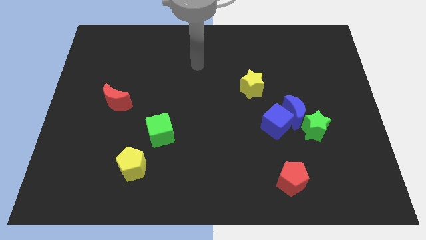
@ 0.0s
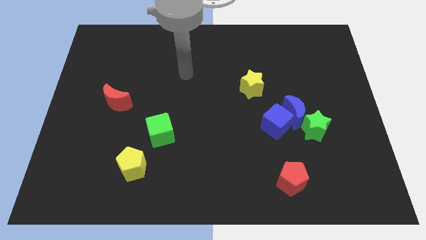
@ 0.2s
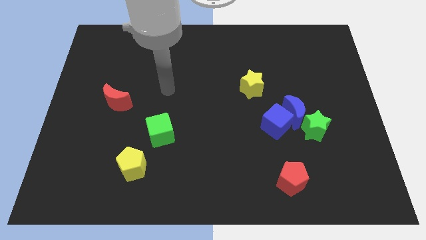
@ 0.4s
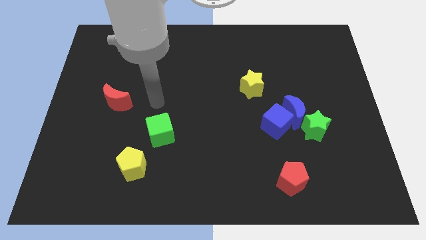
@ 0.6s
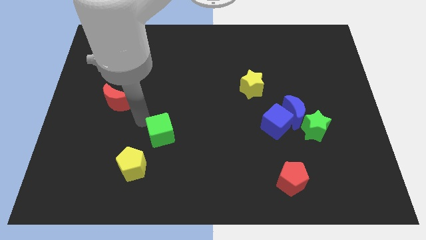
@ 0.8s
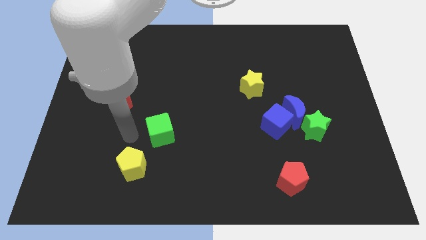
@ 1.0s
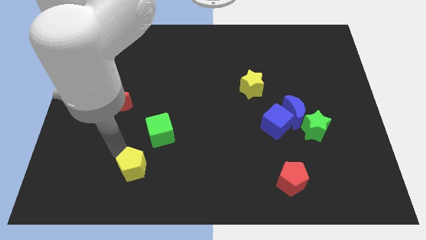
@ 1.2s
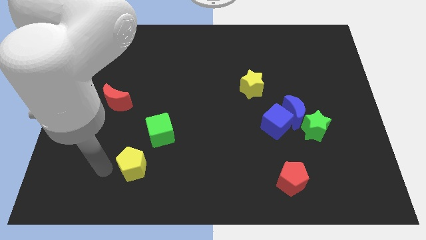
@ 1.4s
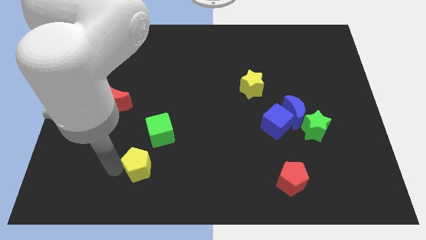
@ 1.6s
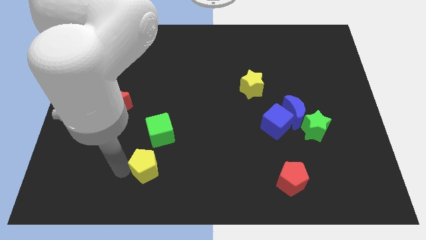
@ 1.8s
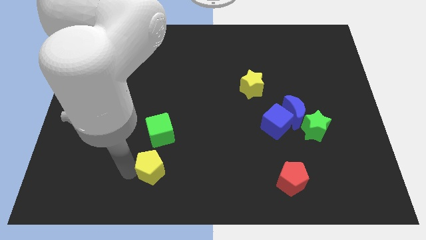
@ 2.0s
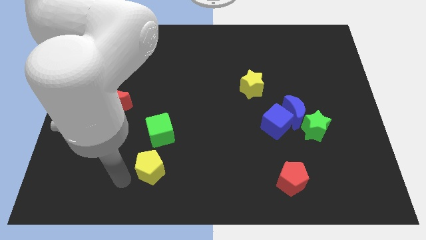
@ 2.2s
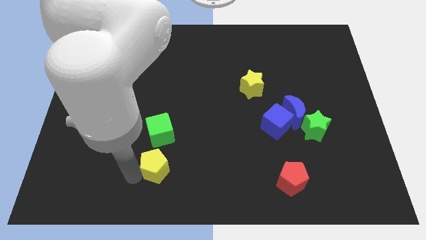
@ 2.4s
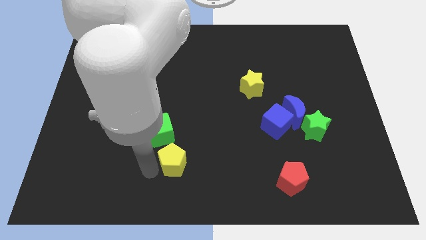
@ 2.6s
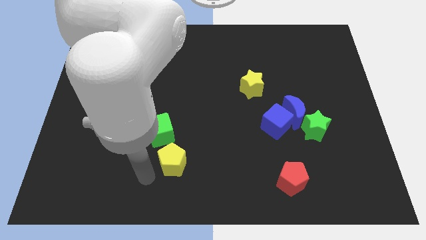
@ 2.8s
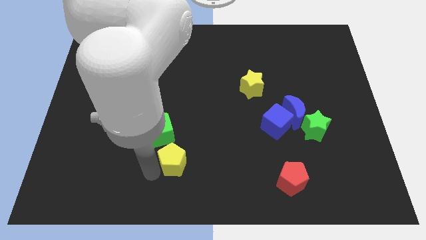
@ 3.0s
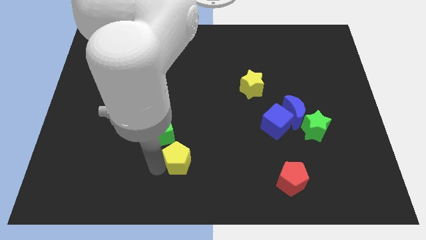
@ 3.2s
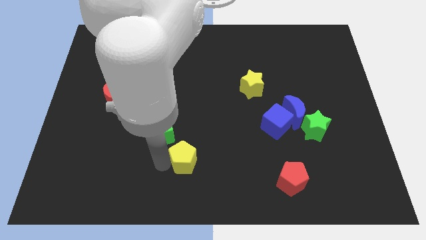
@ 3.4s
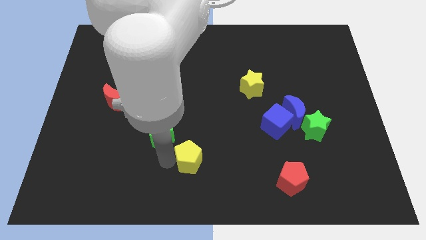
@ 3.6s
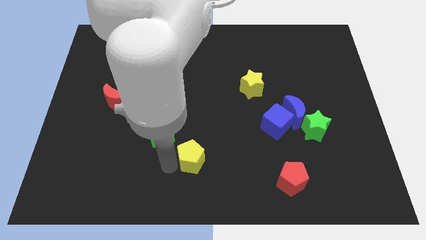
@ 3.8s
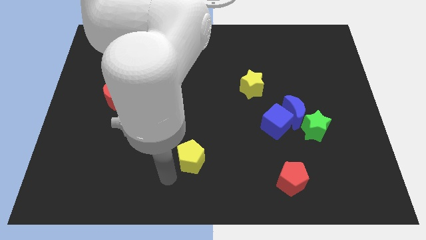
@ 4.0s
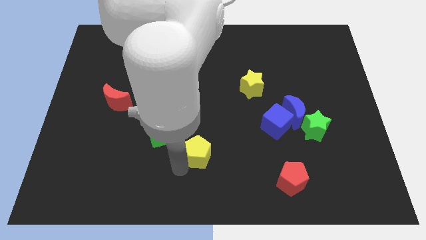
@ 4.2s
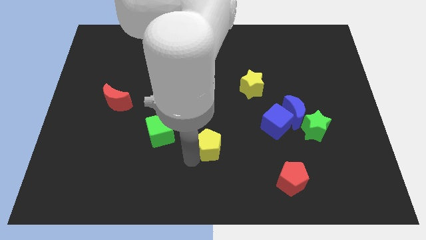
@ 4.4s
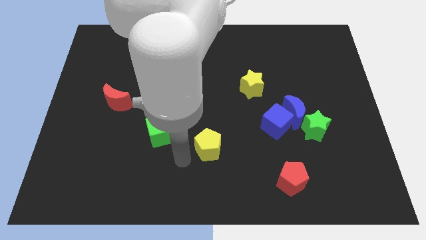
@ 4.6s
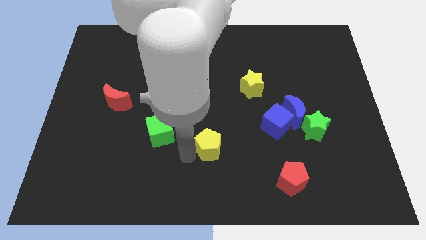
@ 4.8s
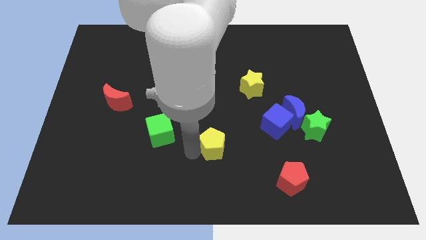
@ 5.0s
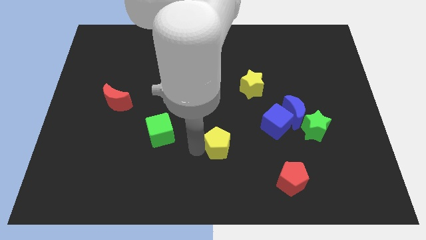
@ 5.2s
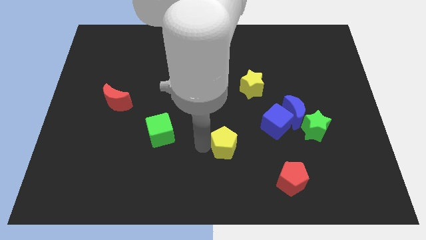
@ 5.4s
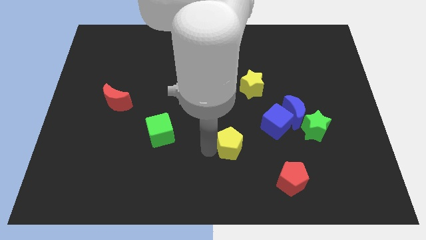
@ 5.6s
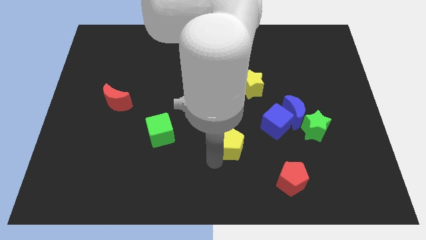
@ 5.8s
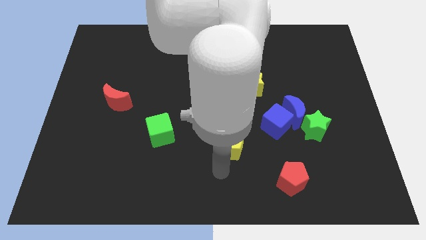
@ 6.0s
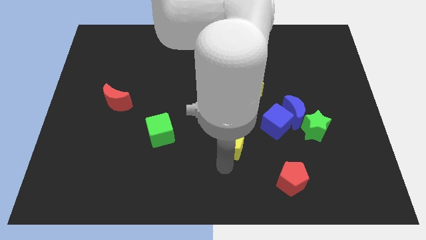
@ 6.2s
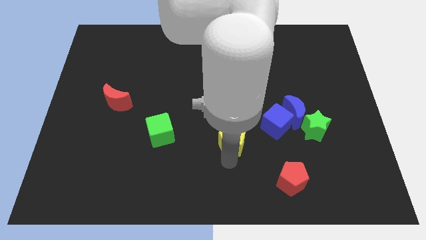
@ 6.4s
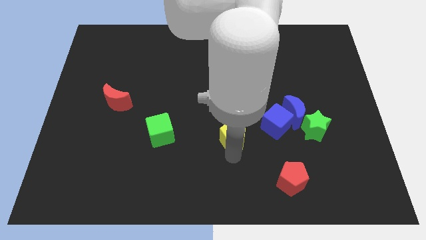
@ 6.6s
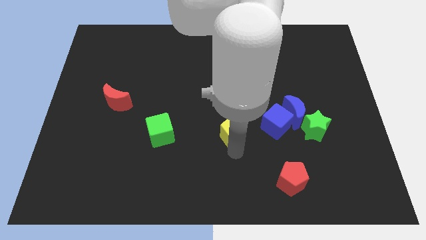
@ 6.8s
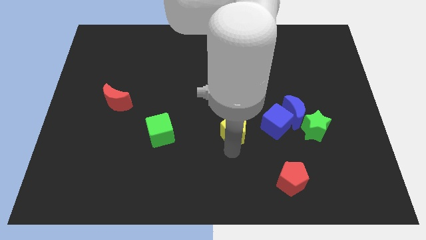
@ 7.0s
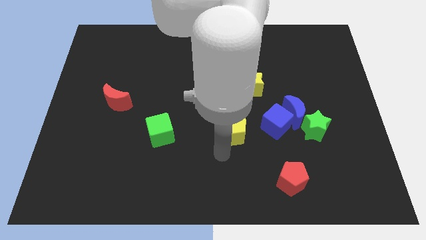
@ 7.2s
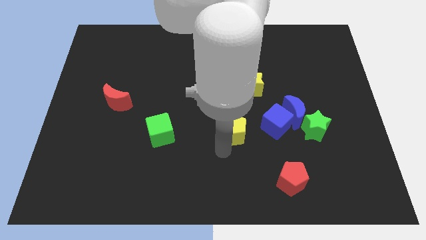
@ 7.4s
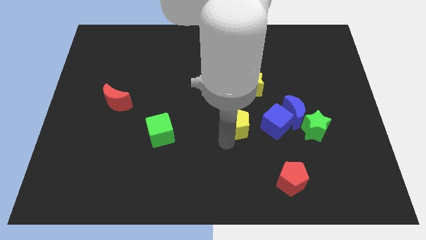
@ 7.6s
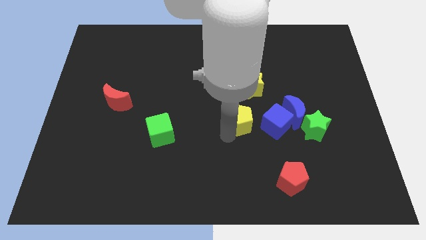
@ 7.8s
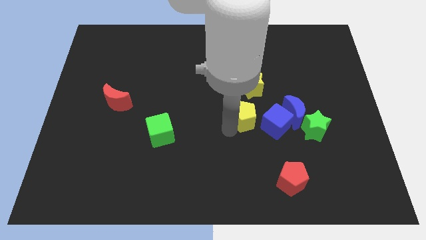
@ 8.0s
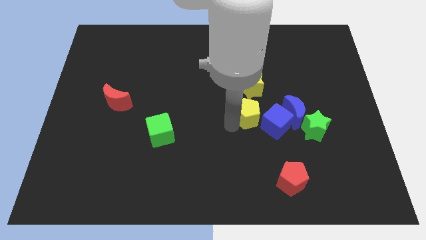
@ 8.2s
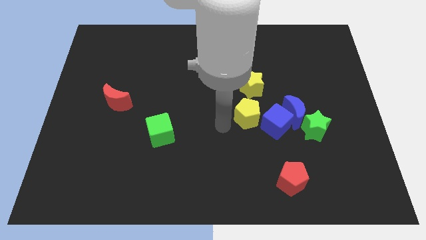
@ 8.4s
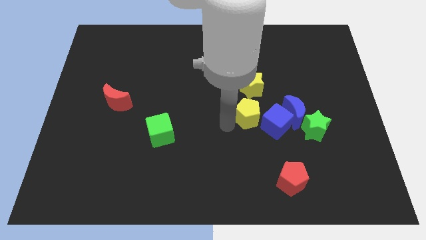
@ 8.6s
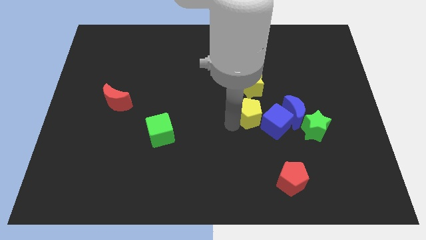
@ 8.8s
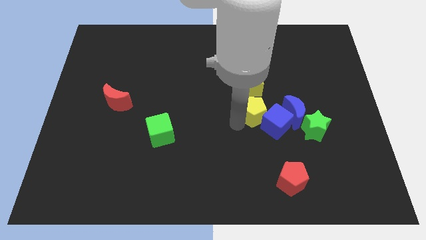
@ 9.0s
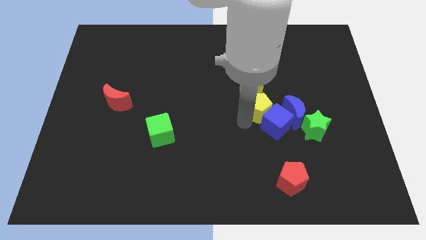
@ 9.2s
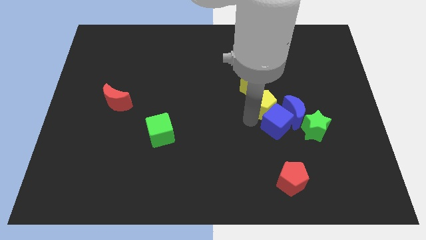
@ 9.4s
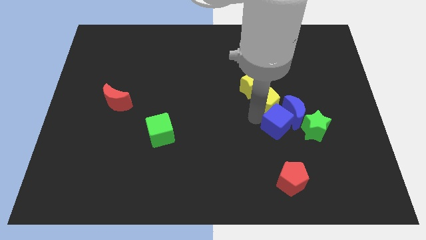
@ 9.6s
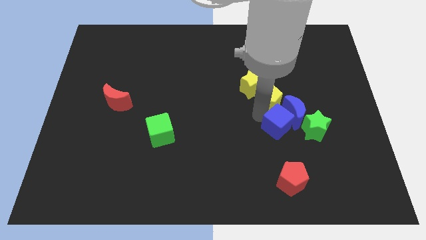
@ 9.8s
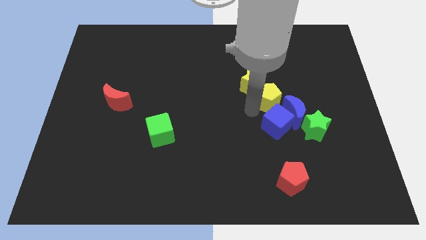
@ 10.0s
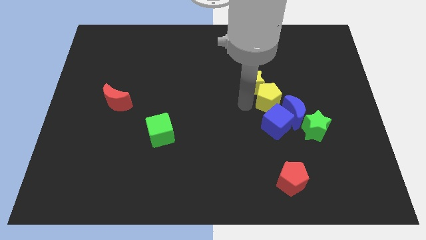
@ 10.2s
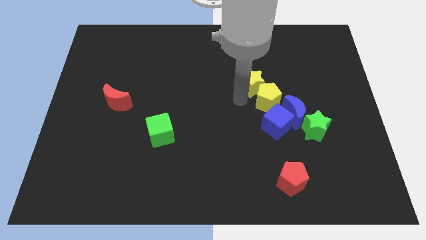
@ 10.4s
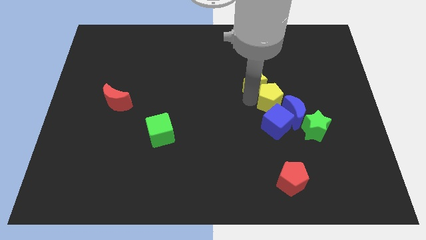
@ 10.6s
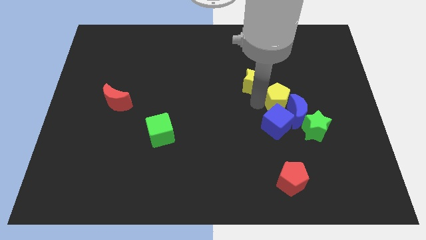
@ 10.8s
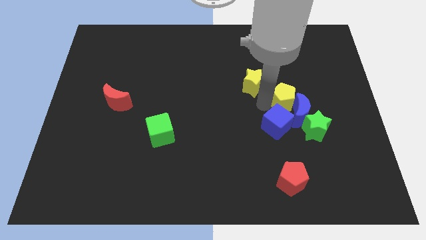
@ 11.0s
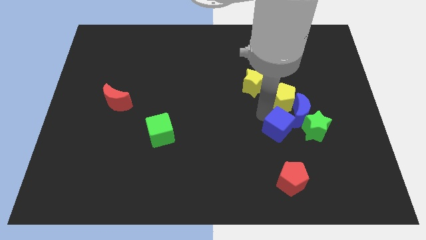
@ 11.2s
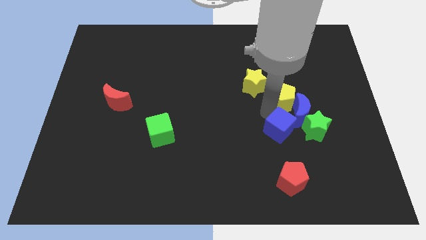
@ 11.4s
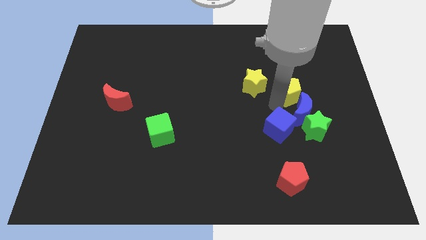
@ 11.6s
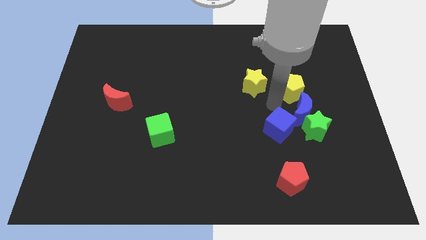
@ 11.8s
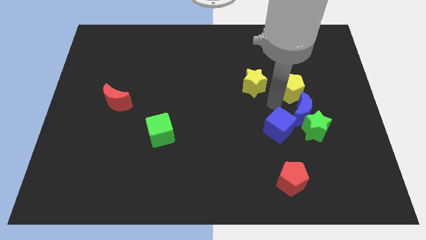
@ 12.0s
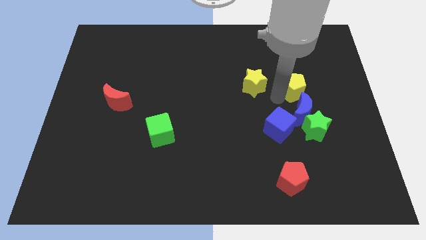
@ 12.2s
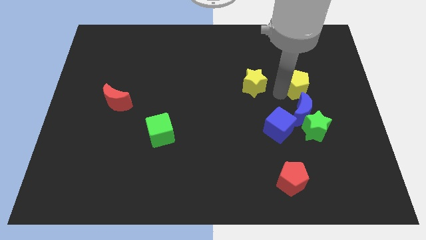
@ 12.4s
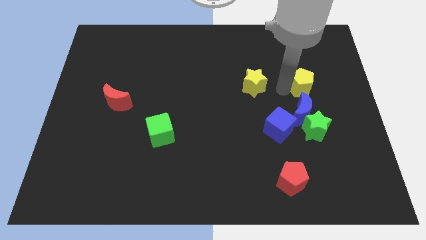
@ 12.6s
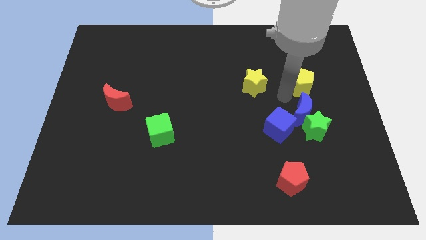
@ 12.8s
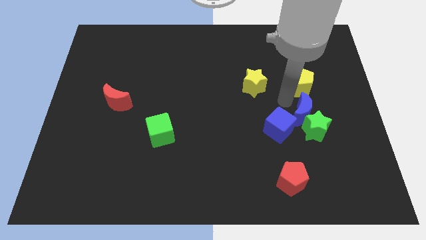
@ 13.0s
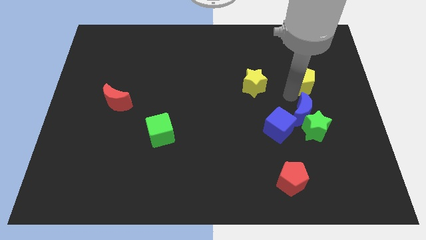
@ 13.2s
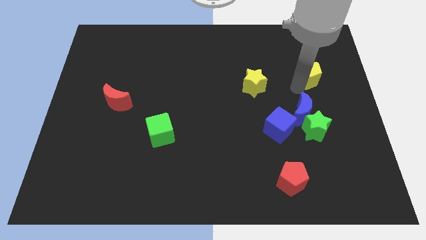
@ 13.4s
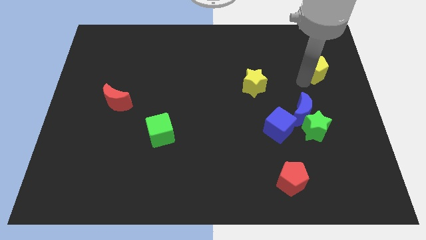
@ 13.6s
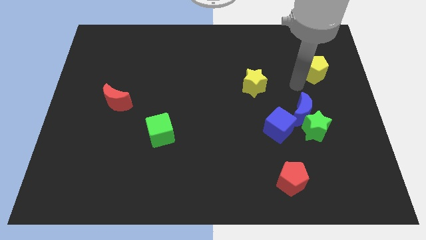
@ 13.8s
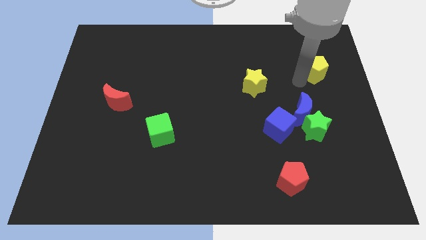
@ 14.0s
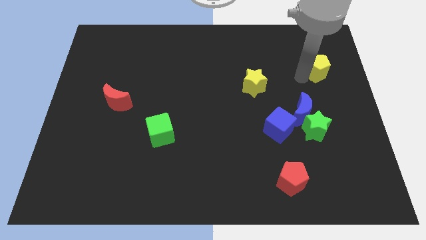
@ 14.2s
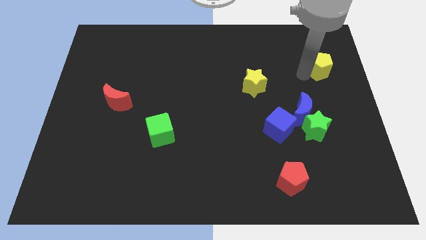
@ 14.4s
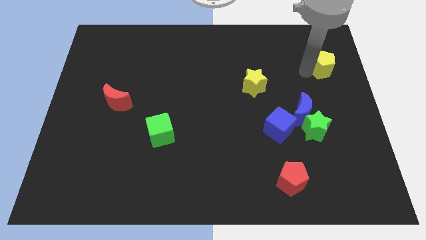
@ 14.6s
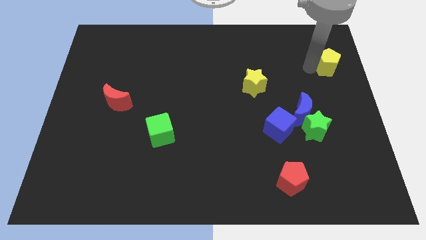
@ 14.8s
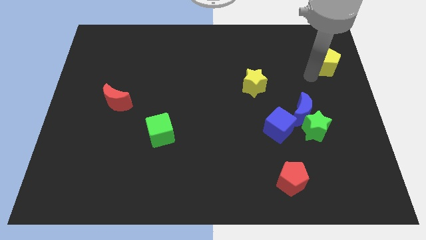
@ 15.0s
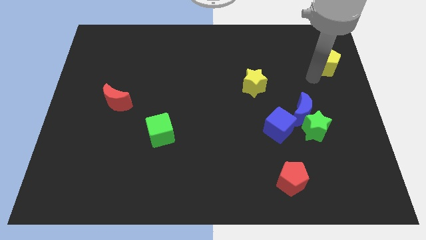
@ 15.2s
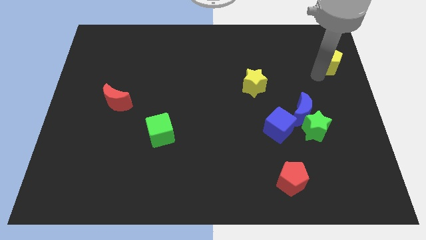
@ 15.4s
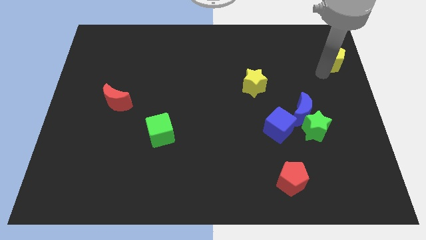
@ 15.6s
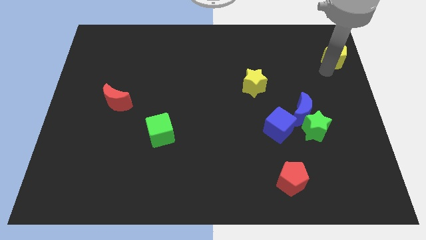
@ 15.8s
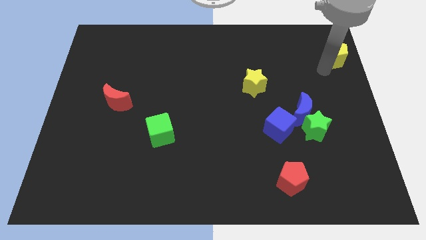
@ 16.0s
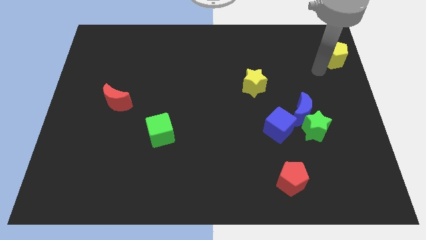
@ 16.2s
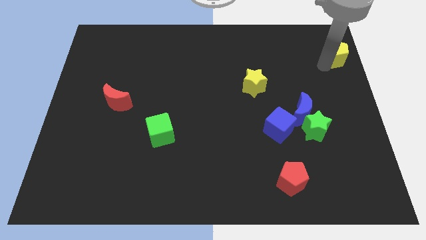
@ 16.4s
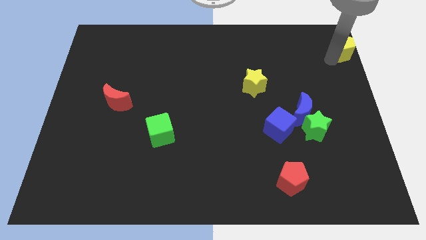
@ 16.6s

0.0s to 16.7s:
move the yellow pentagon to the upper right corner
